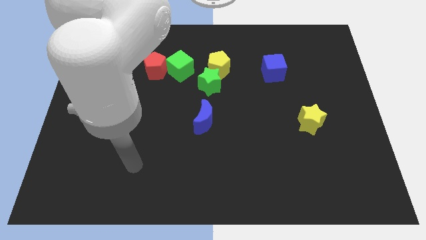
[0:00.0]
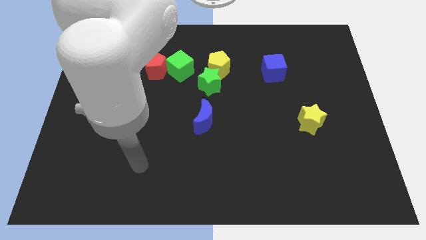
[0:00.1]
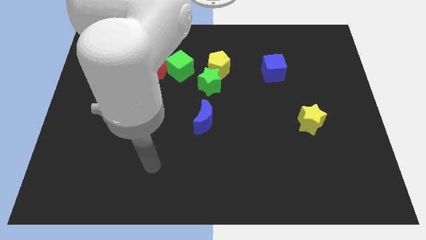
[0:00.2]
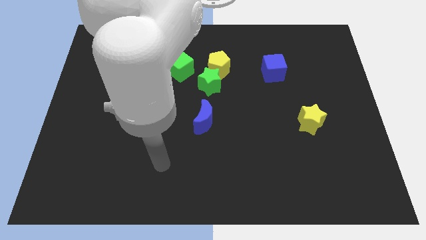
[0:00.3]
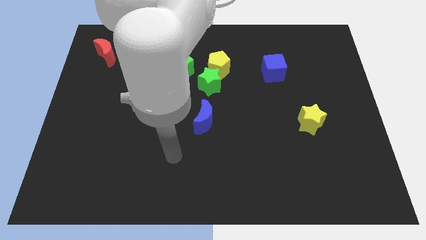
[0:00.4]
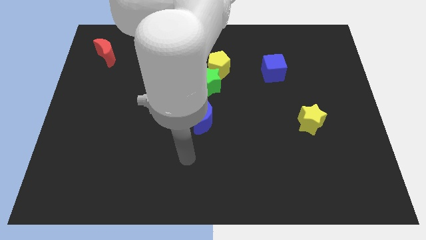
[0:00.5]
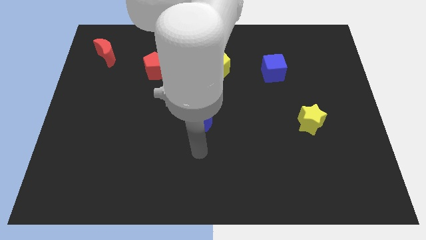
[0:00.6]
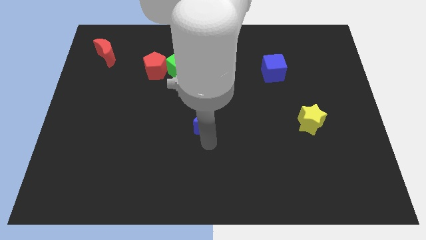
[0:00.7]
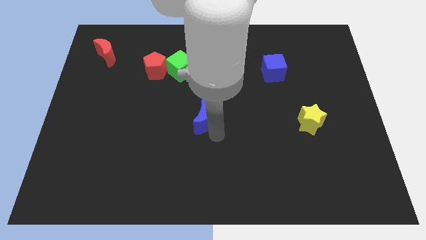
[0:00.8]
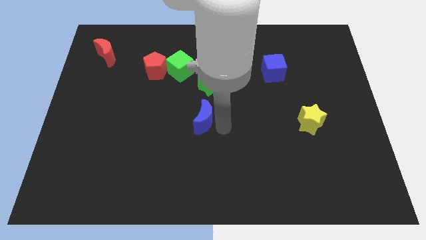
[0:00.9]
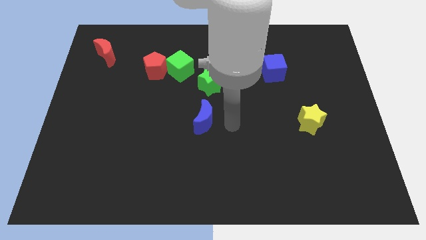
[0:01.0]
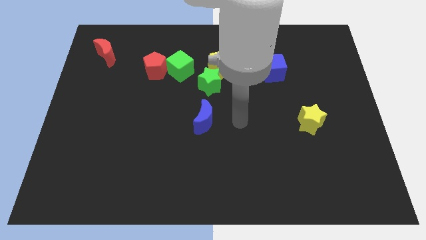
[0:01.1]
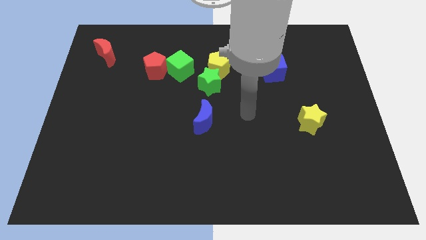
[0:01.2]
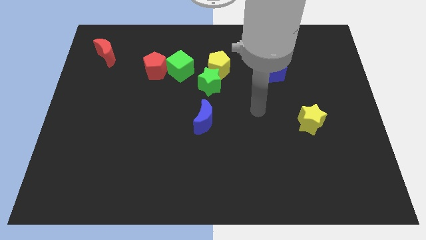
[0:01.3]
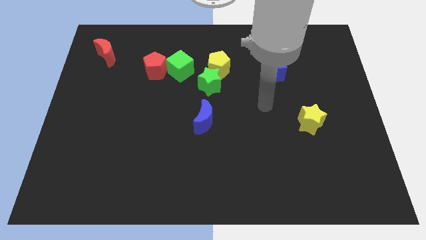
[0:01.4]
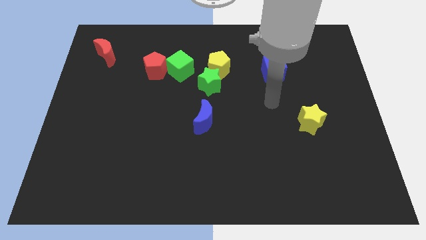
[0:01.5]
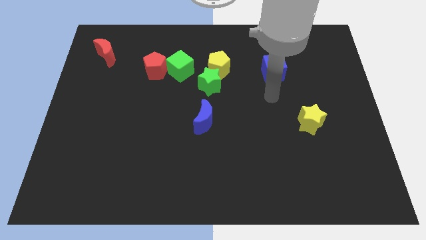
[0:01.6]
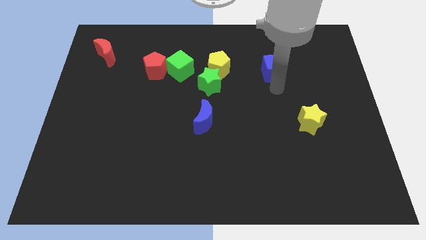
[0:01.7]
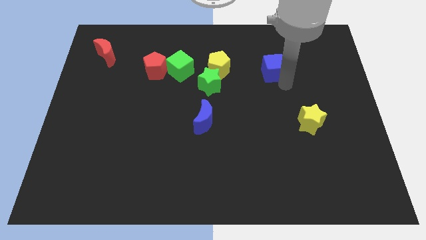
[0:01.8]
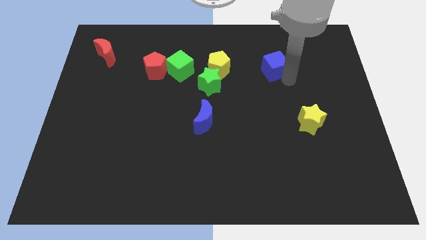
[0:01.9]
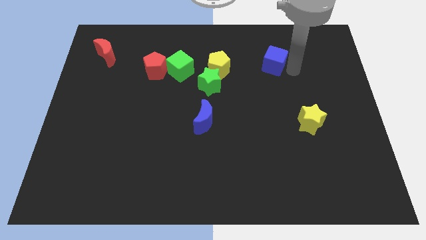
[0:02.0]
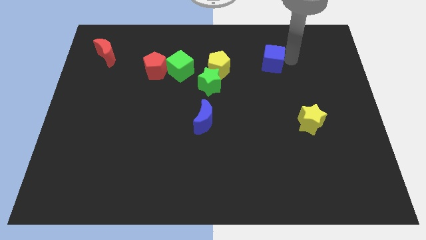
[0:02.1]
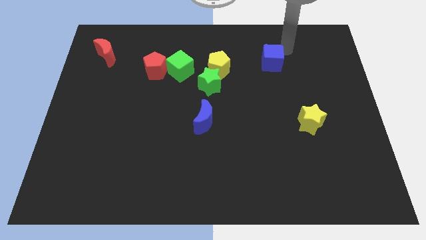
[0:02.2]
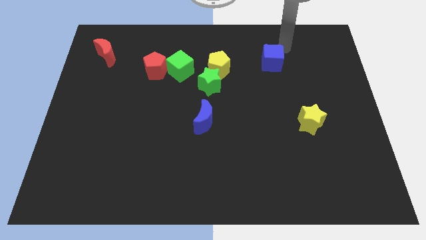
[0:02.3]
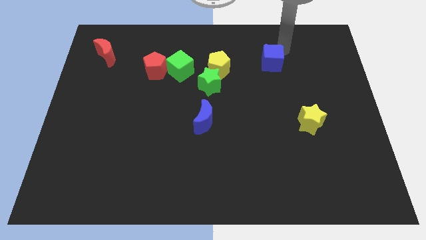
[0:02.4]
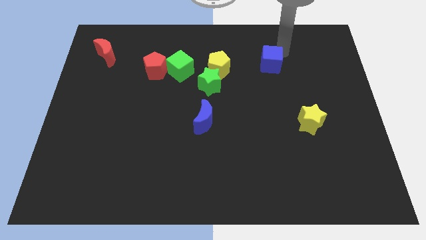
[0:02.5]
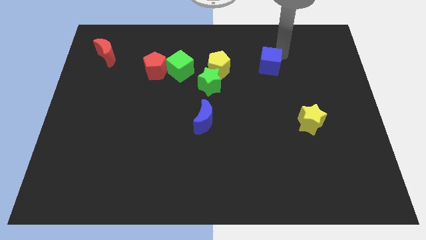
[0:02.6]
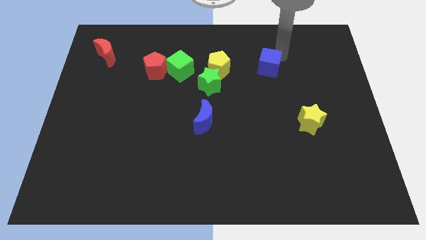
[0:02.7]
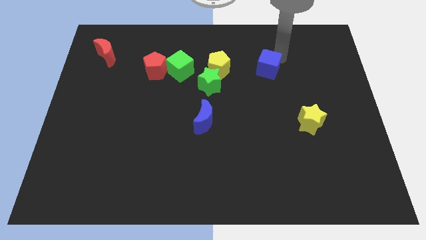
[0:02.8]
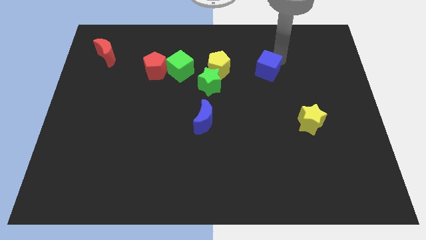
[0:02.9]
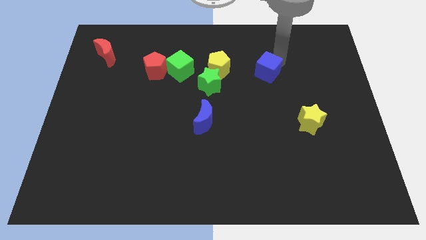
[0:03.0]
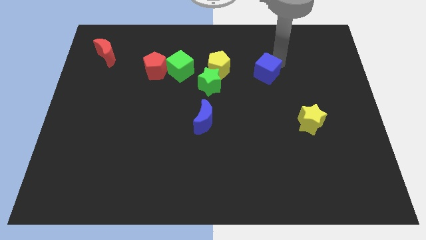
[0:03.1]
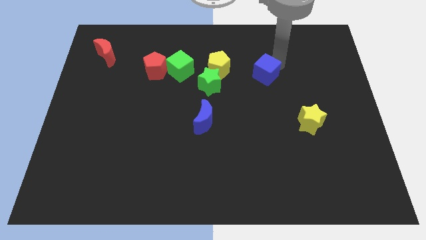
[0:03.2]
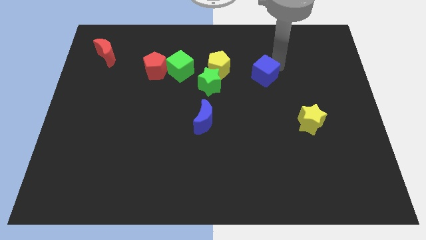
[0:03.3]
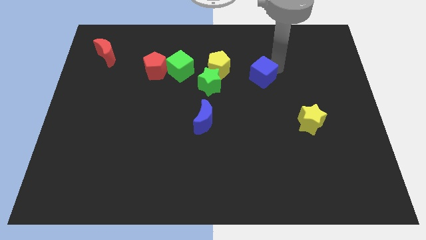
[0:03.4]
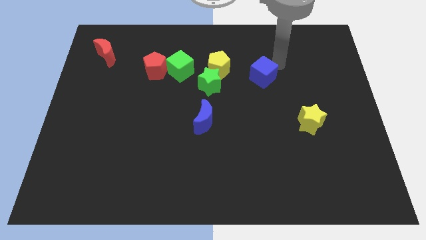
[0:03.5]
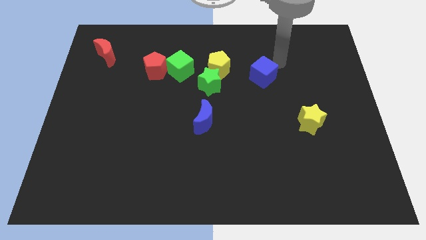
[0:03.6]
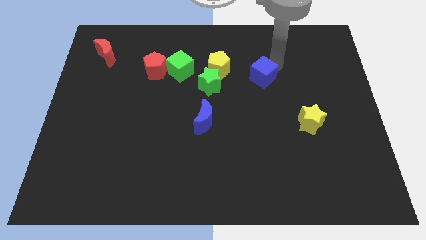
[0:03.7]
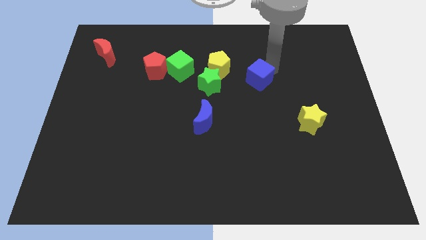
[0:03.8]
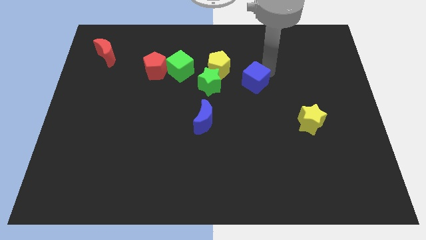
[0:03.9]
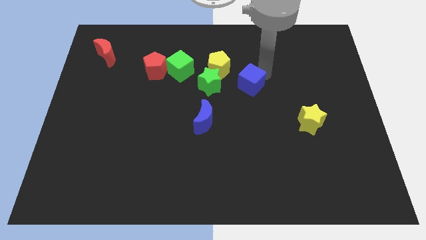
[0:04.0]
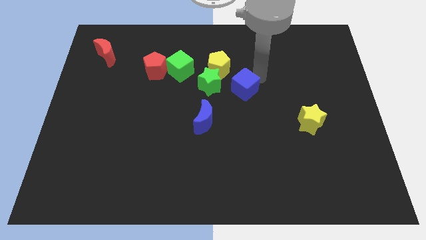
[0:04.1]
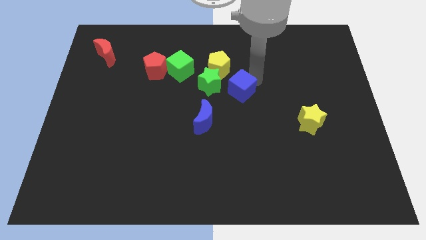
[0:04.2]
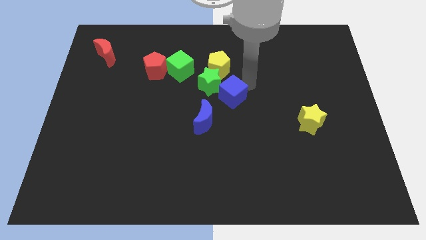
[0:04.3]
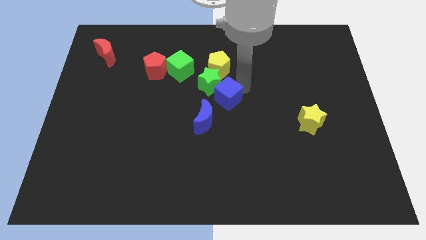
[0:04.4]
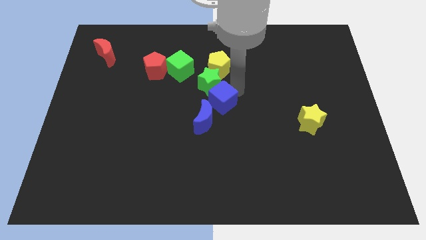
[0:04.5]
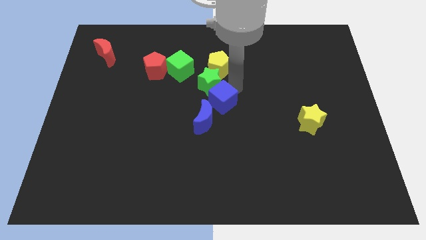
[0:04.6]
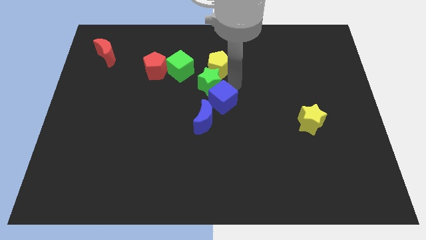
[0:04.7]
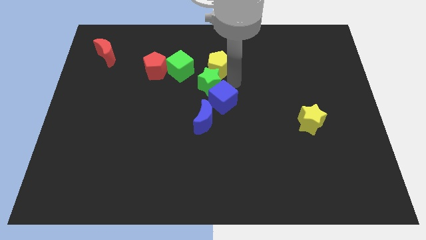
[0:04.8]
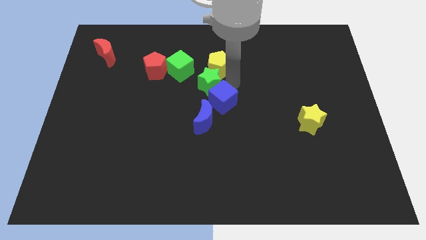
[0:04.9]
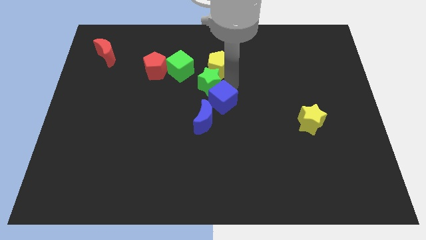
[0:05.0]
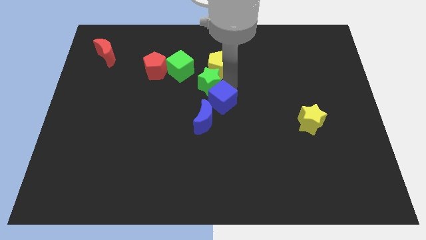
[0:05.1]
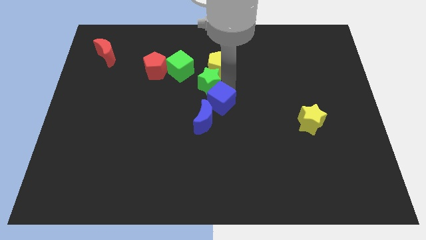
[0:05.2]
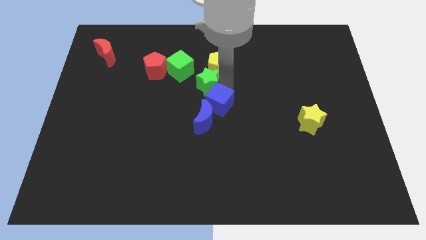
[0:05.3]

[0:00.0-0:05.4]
move the blue cube close to the blue moon

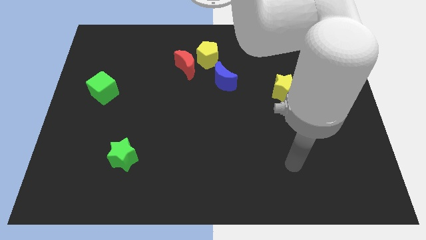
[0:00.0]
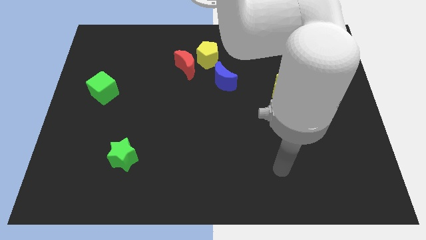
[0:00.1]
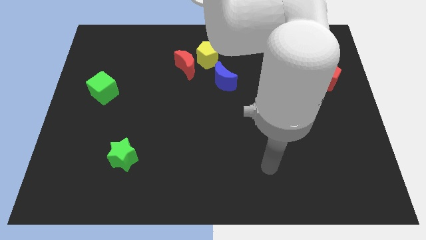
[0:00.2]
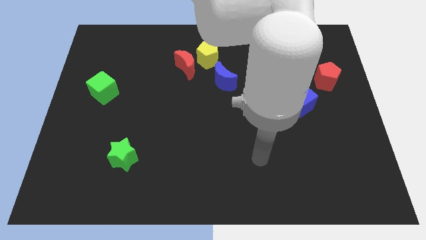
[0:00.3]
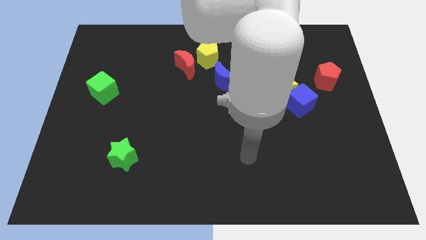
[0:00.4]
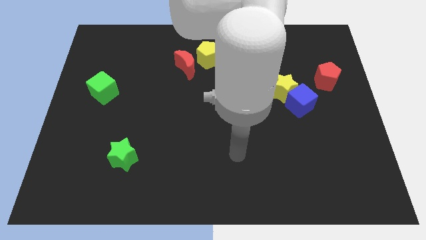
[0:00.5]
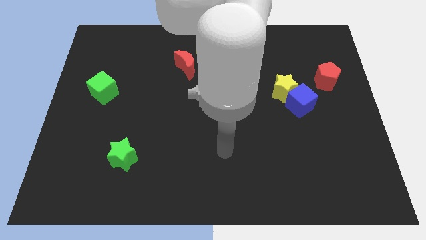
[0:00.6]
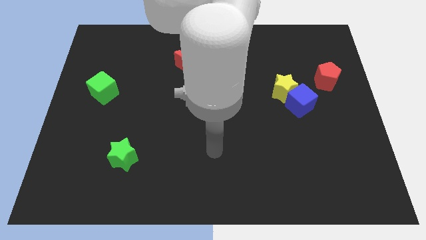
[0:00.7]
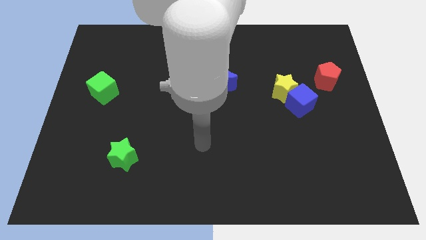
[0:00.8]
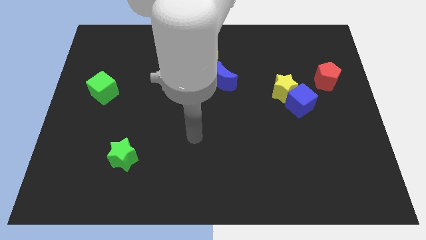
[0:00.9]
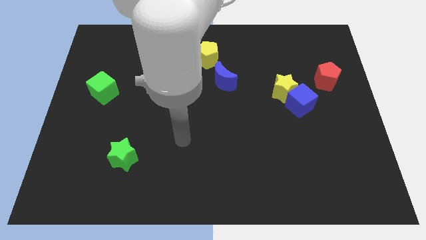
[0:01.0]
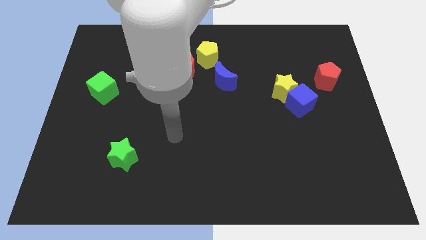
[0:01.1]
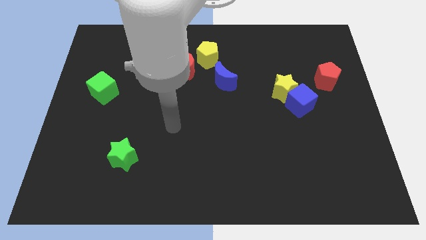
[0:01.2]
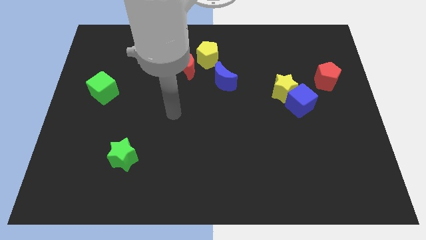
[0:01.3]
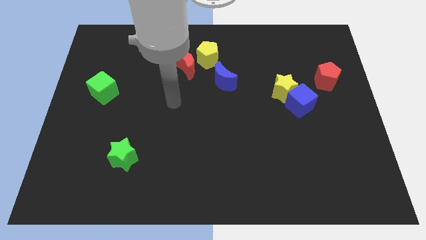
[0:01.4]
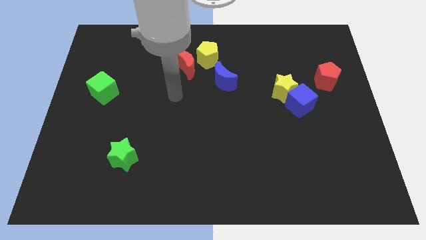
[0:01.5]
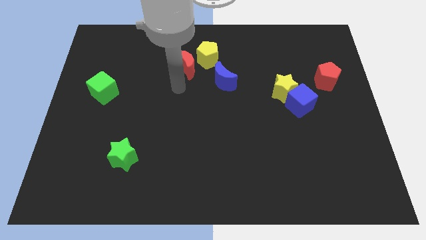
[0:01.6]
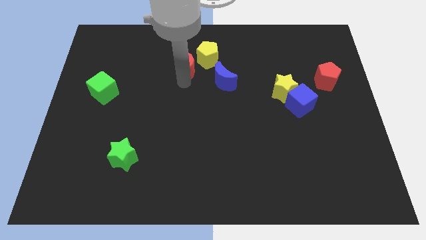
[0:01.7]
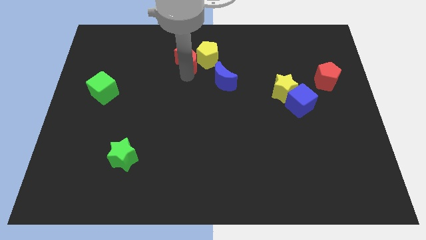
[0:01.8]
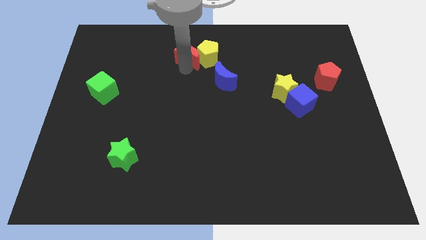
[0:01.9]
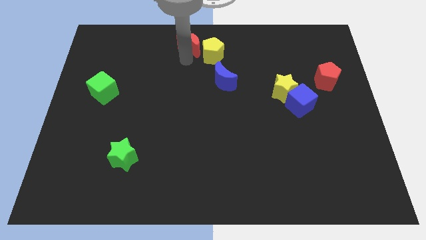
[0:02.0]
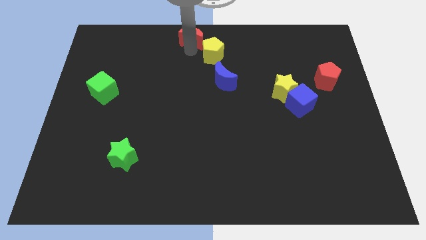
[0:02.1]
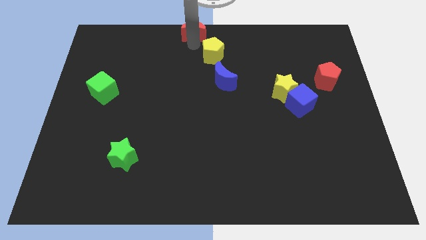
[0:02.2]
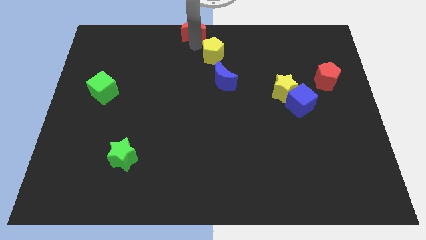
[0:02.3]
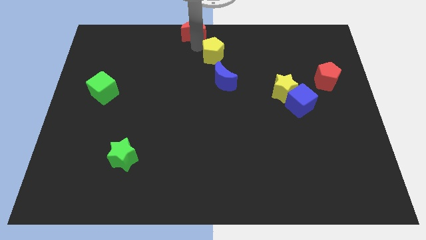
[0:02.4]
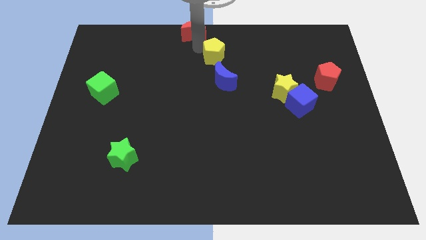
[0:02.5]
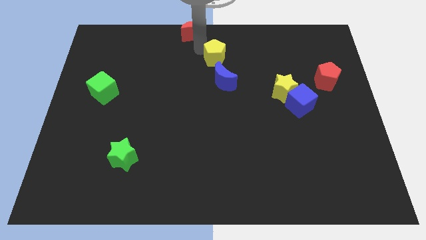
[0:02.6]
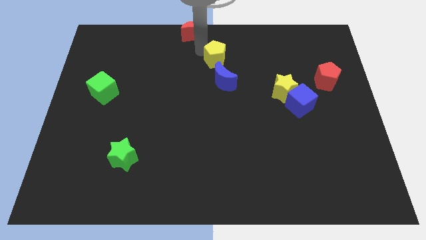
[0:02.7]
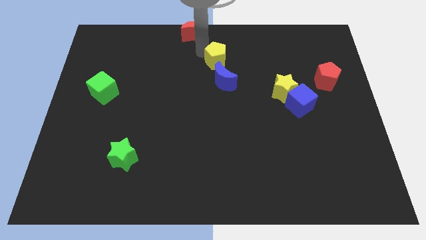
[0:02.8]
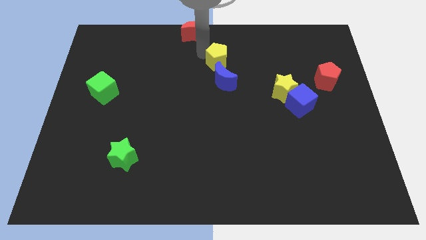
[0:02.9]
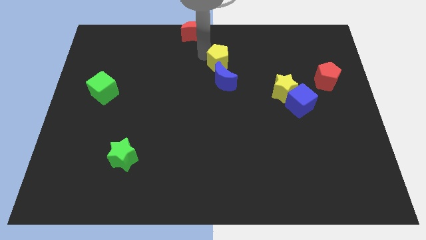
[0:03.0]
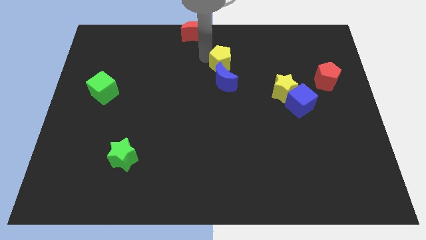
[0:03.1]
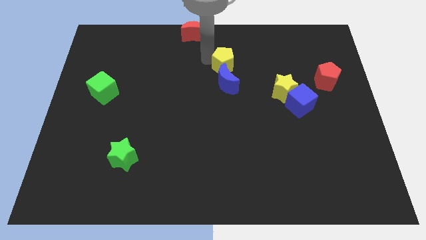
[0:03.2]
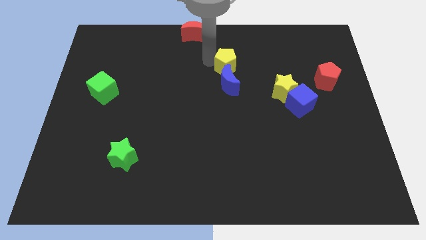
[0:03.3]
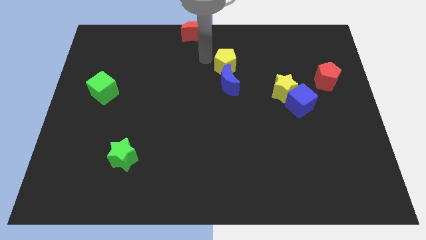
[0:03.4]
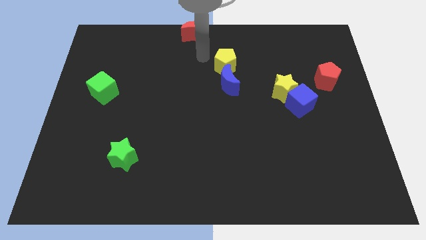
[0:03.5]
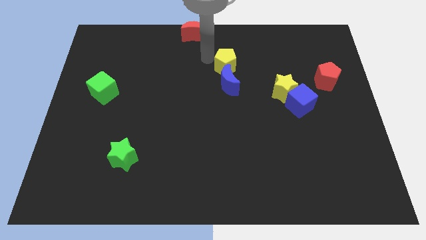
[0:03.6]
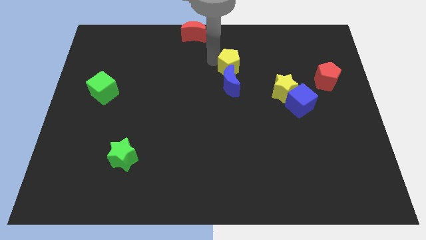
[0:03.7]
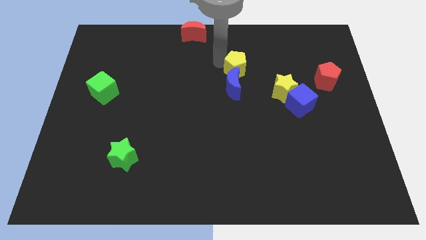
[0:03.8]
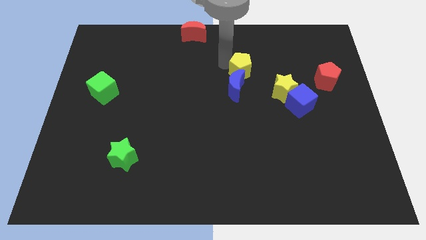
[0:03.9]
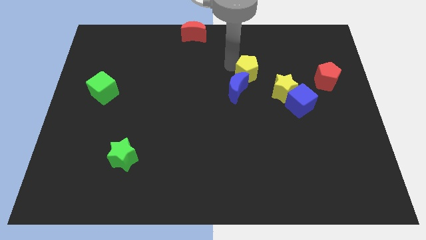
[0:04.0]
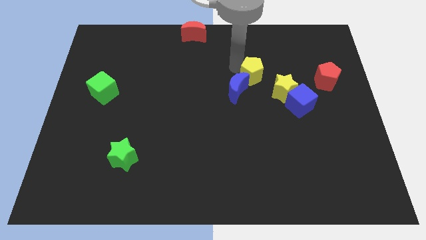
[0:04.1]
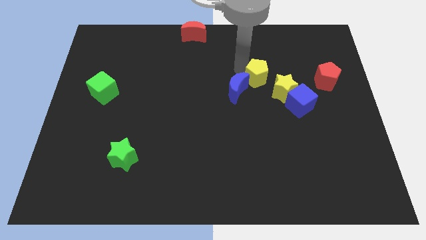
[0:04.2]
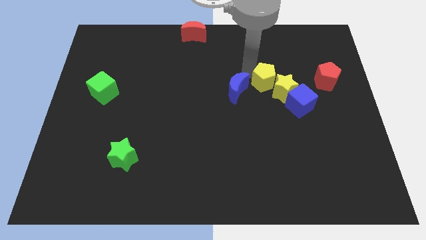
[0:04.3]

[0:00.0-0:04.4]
move the yellow pentagon to the yellow star
